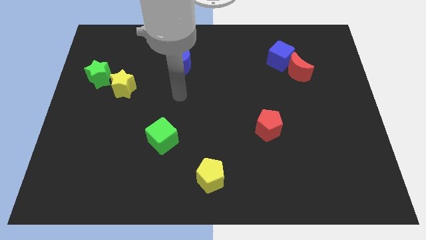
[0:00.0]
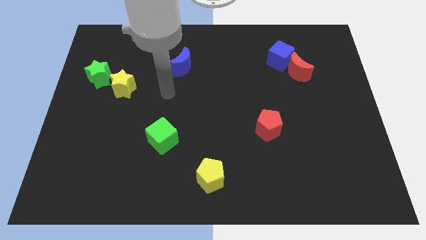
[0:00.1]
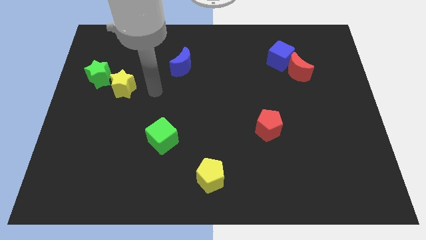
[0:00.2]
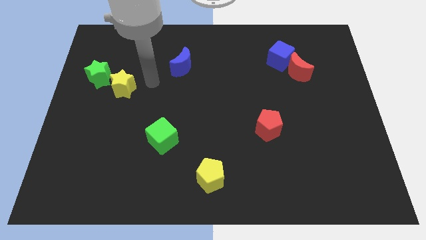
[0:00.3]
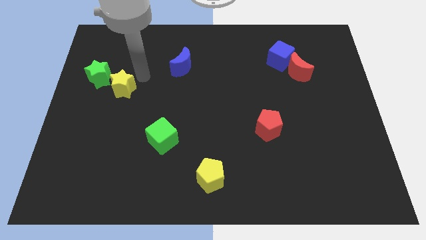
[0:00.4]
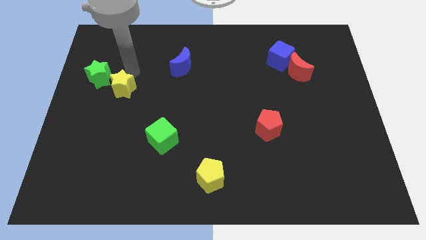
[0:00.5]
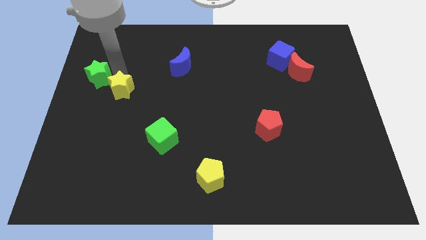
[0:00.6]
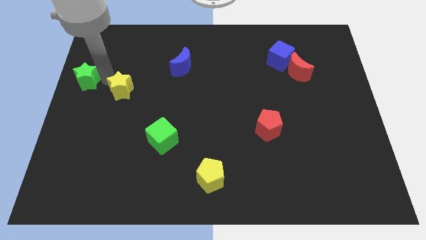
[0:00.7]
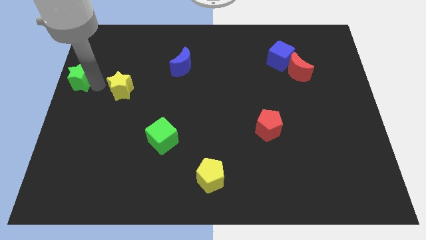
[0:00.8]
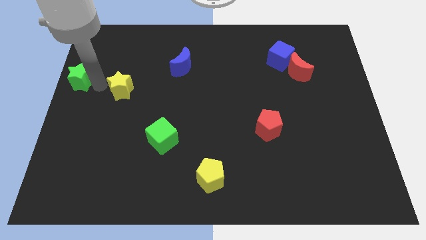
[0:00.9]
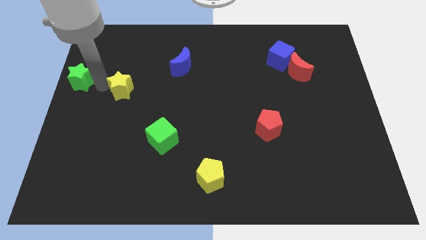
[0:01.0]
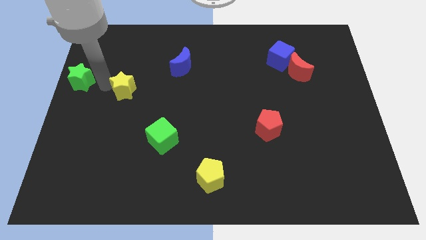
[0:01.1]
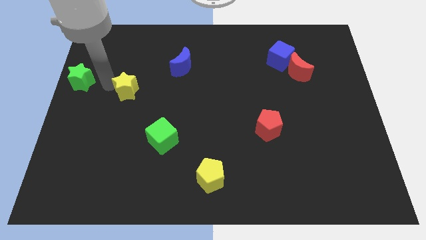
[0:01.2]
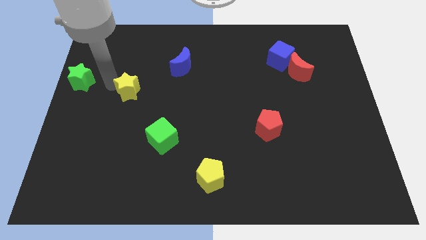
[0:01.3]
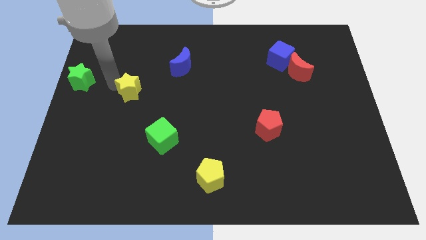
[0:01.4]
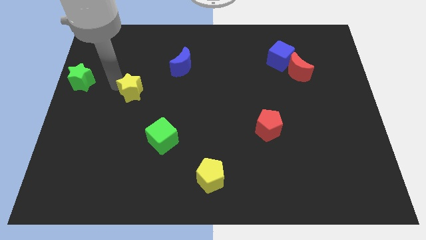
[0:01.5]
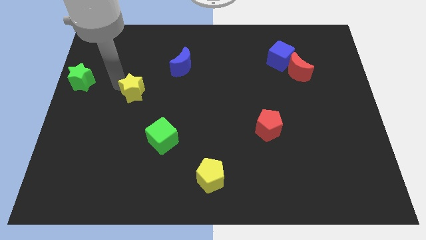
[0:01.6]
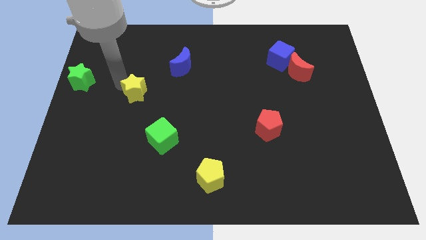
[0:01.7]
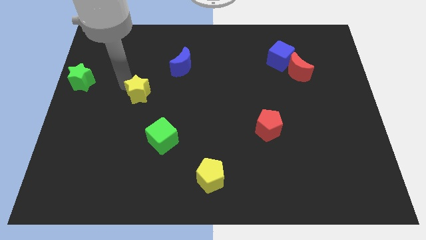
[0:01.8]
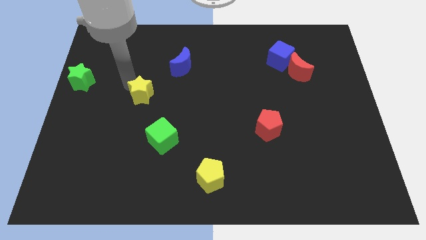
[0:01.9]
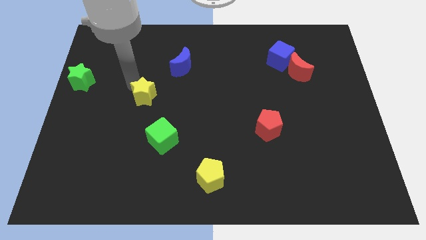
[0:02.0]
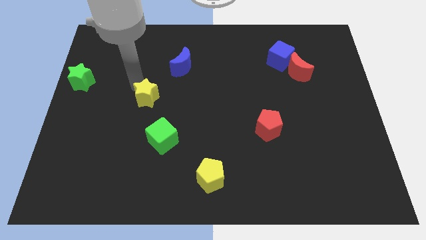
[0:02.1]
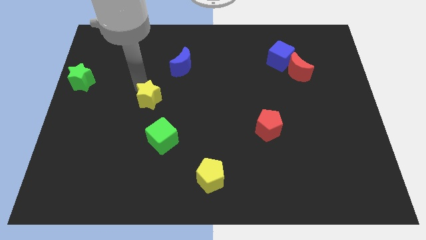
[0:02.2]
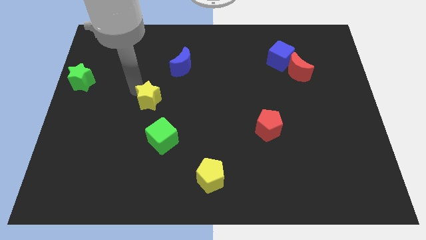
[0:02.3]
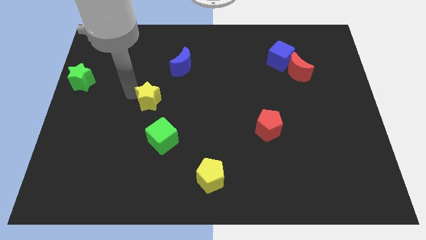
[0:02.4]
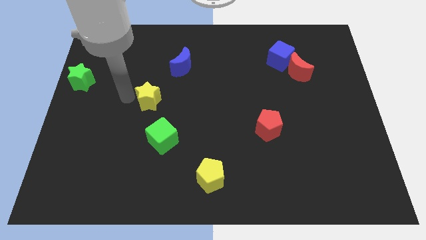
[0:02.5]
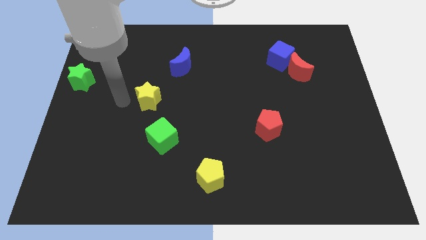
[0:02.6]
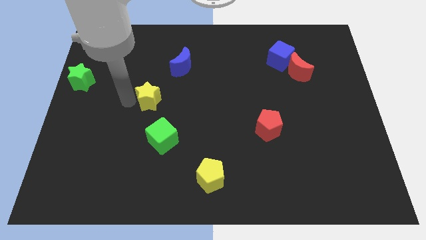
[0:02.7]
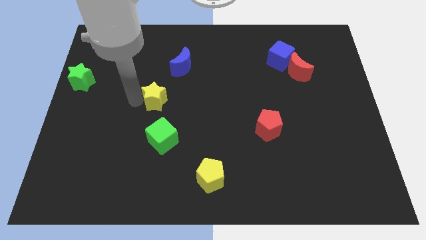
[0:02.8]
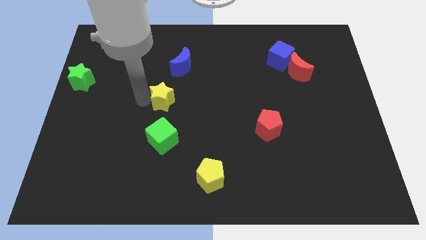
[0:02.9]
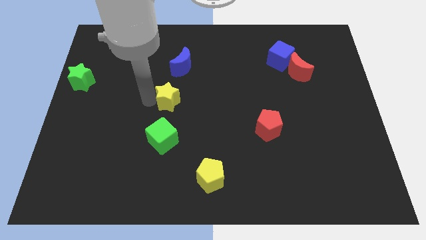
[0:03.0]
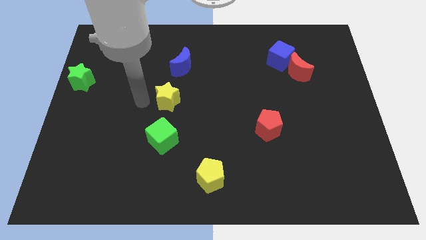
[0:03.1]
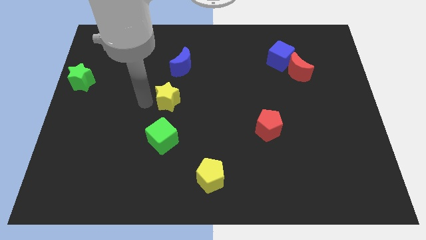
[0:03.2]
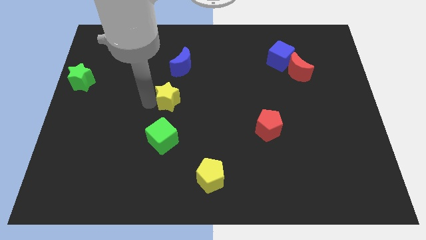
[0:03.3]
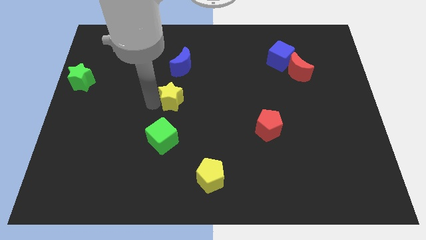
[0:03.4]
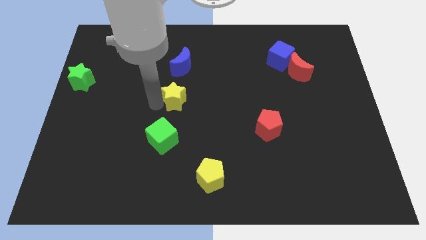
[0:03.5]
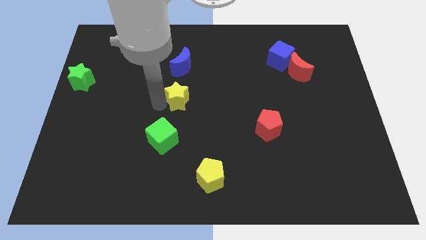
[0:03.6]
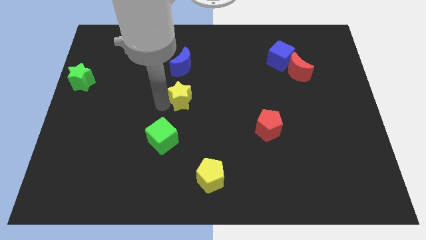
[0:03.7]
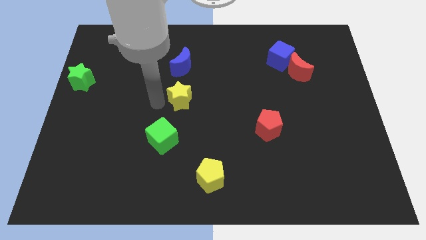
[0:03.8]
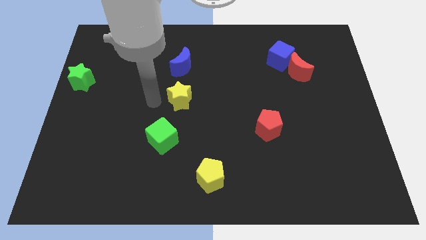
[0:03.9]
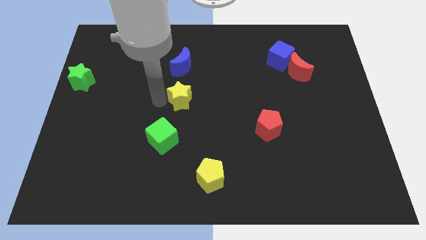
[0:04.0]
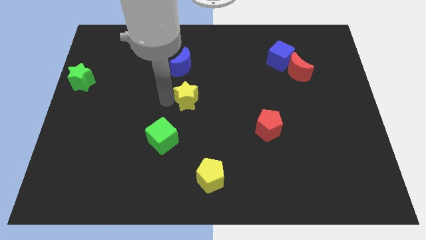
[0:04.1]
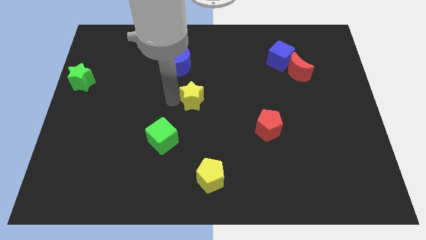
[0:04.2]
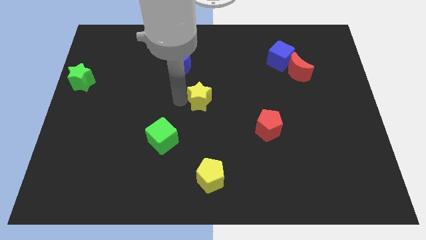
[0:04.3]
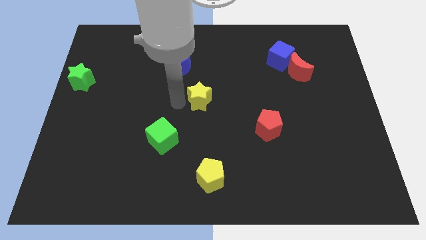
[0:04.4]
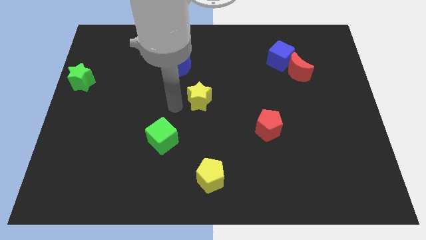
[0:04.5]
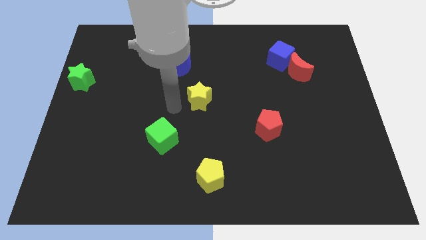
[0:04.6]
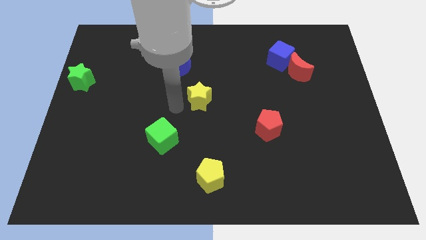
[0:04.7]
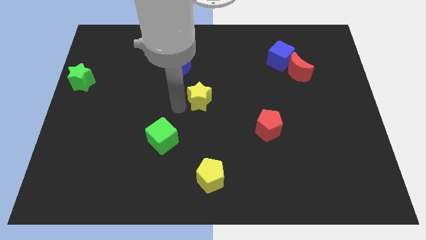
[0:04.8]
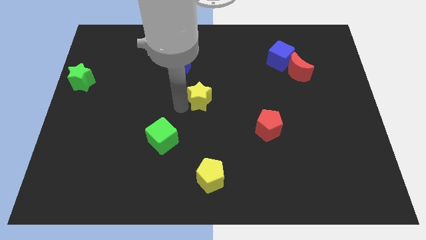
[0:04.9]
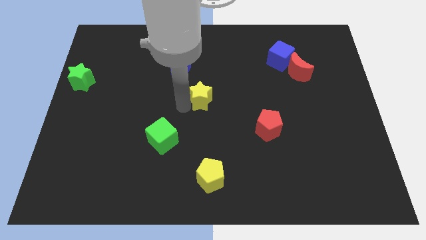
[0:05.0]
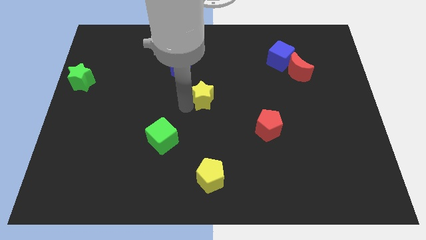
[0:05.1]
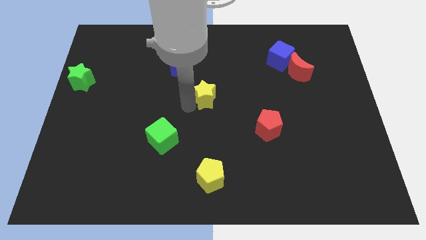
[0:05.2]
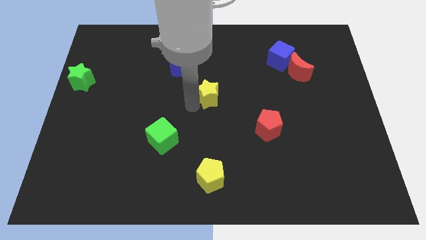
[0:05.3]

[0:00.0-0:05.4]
push the yellow star right

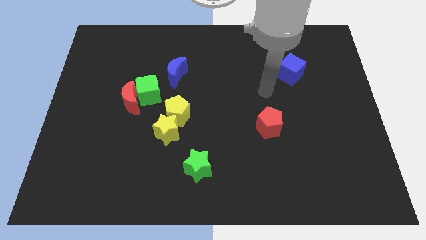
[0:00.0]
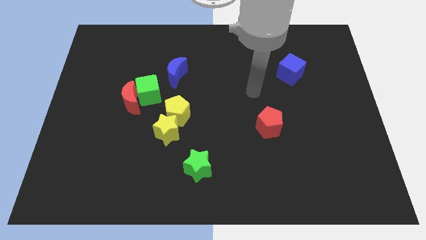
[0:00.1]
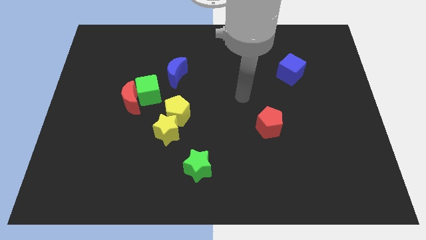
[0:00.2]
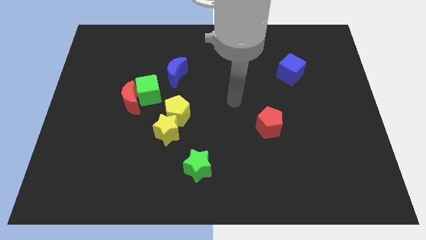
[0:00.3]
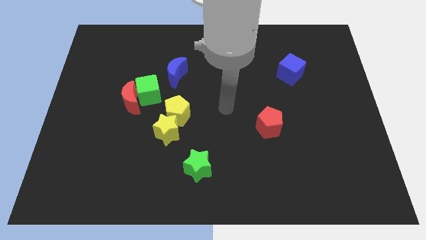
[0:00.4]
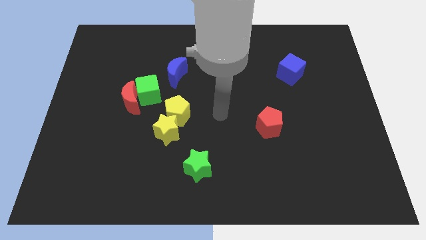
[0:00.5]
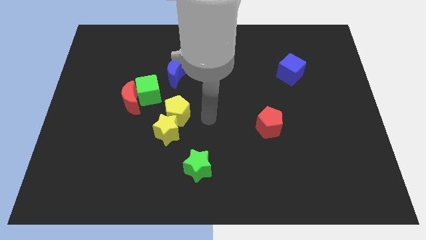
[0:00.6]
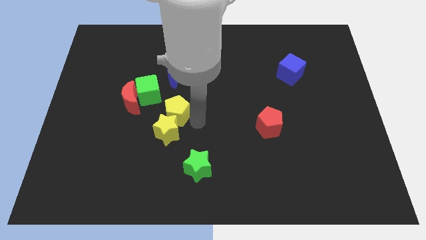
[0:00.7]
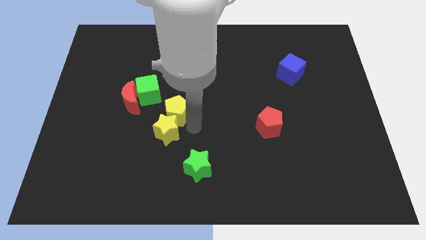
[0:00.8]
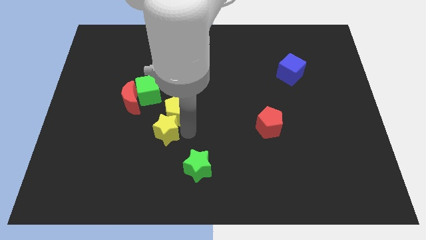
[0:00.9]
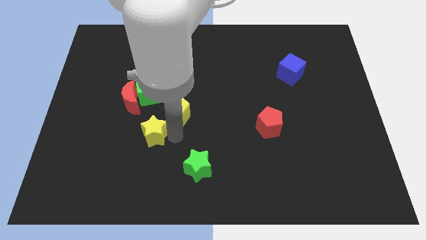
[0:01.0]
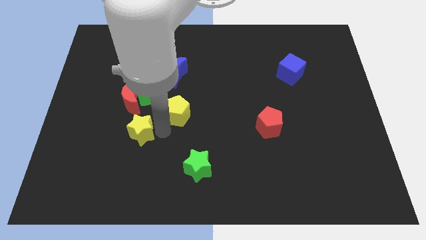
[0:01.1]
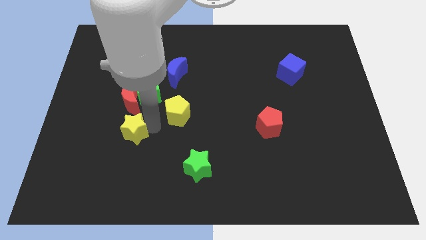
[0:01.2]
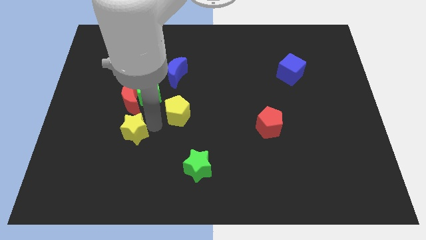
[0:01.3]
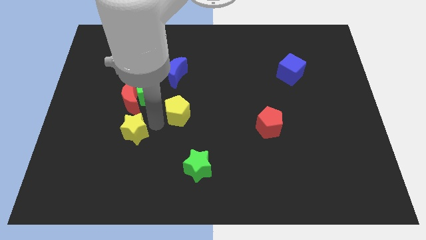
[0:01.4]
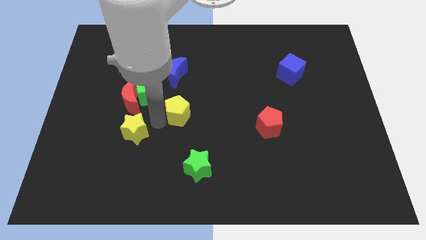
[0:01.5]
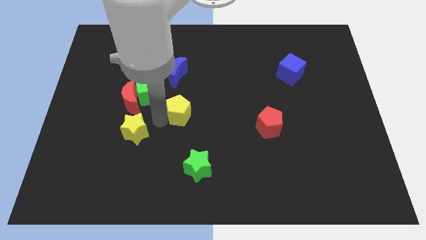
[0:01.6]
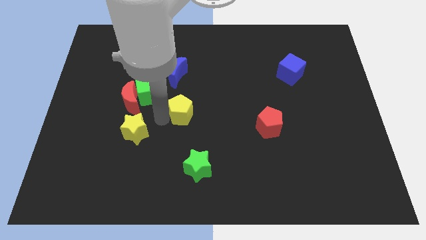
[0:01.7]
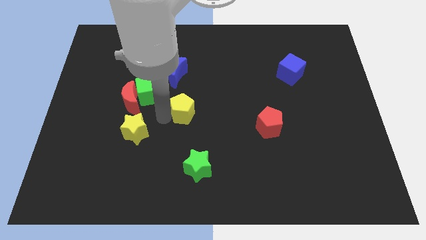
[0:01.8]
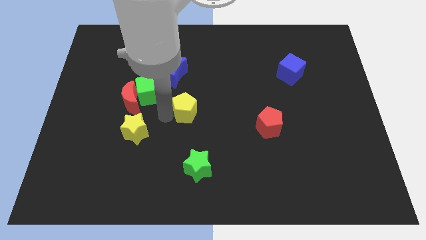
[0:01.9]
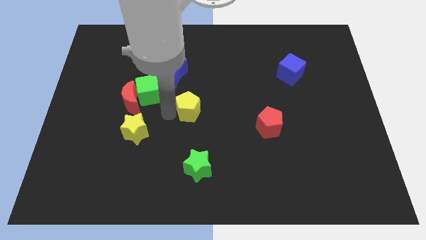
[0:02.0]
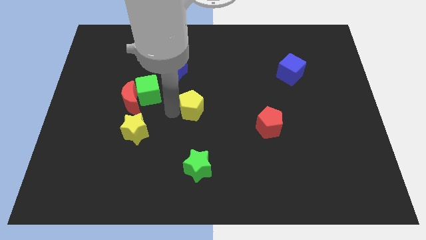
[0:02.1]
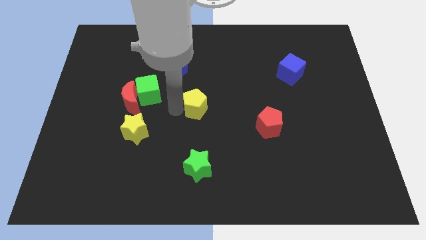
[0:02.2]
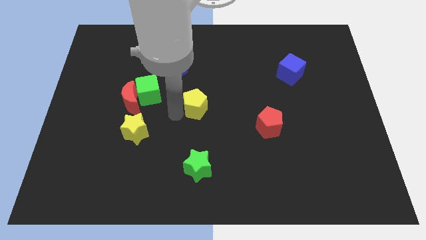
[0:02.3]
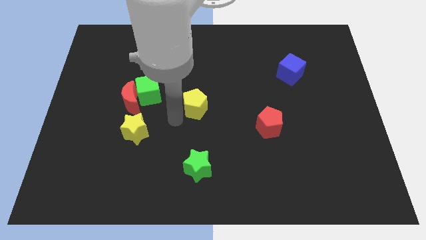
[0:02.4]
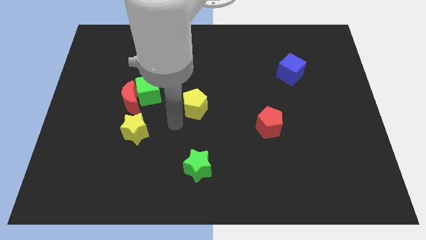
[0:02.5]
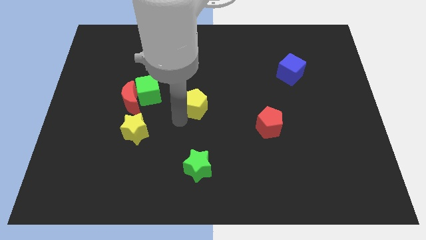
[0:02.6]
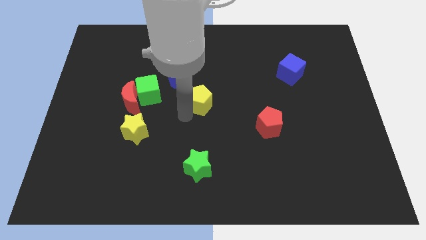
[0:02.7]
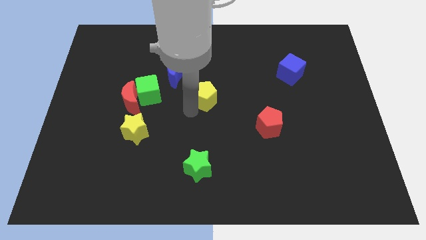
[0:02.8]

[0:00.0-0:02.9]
slightly slide the yellow pentagon diagonally upwards and right
